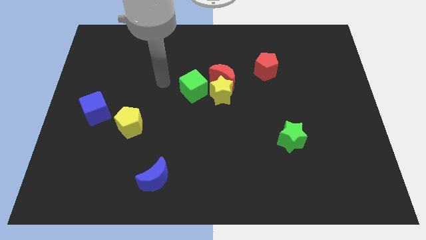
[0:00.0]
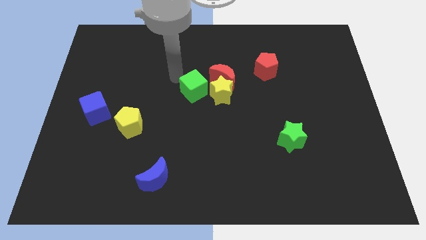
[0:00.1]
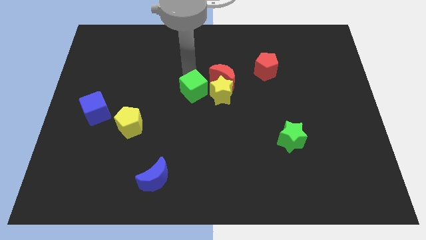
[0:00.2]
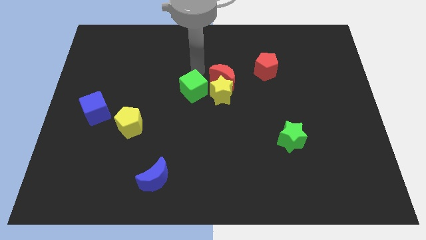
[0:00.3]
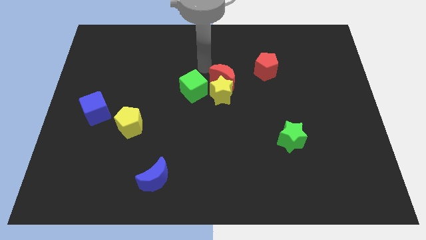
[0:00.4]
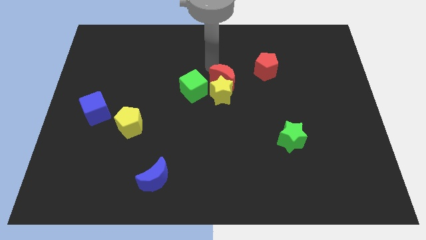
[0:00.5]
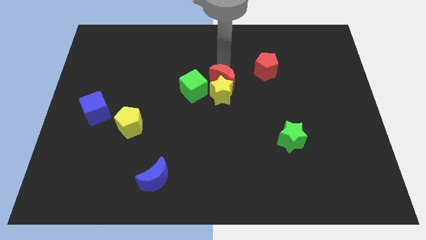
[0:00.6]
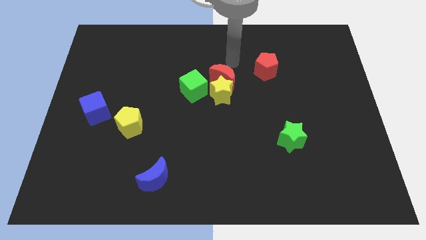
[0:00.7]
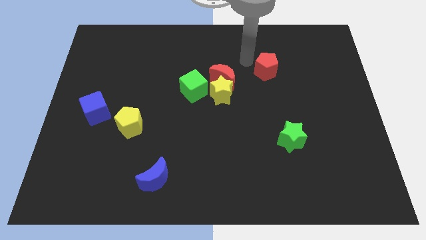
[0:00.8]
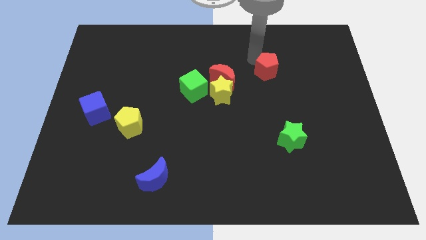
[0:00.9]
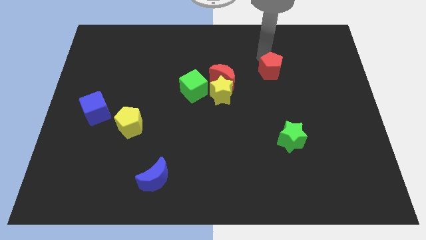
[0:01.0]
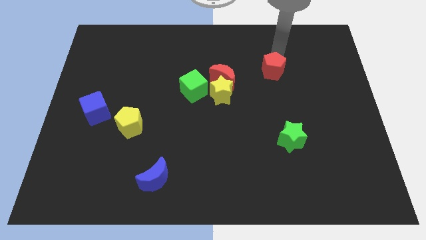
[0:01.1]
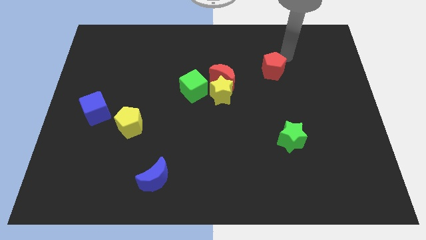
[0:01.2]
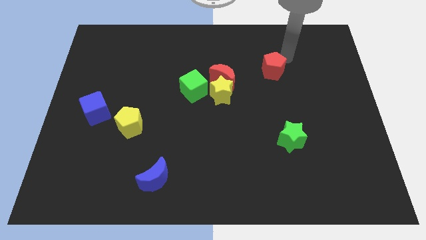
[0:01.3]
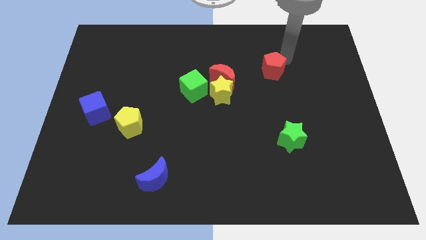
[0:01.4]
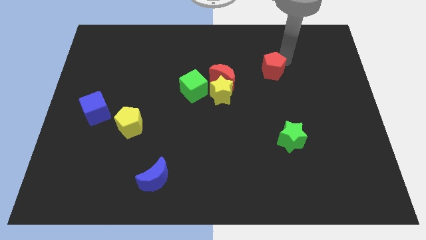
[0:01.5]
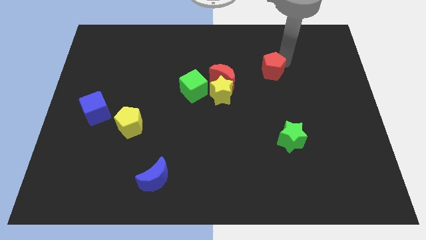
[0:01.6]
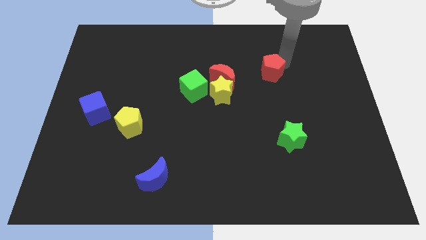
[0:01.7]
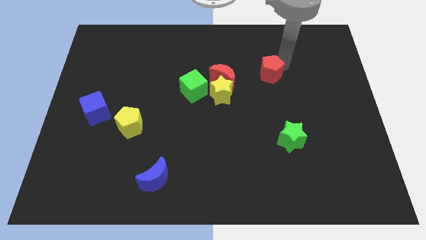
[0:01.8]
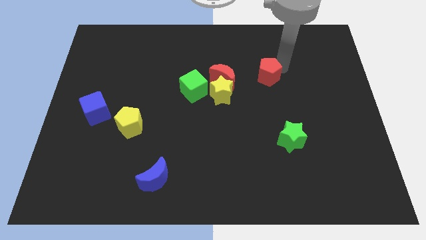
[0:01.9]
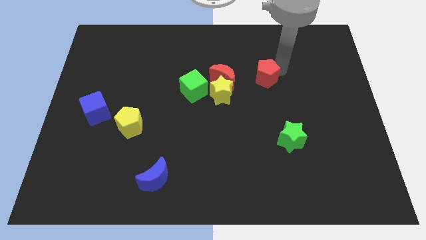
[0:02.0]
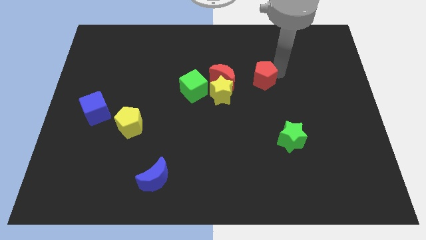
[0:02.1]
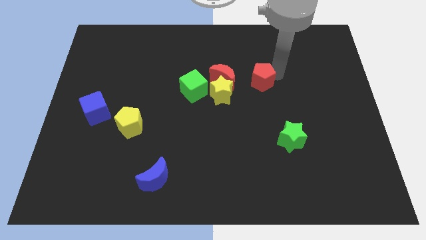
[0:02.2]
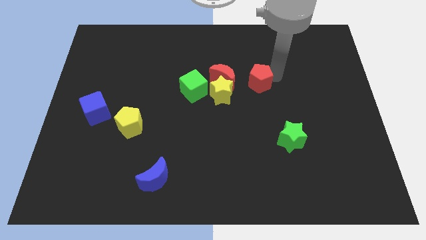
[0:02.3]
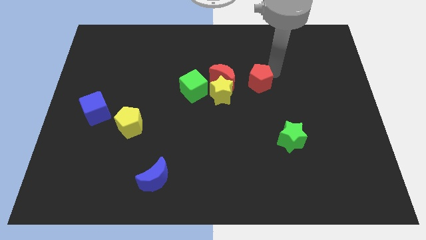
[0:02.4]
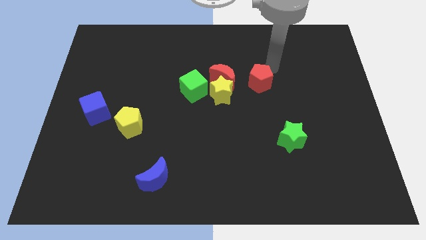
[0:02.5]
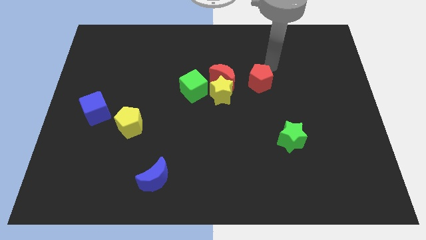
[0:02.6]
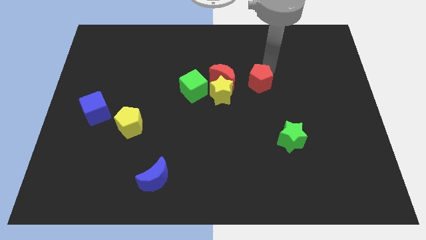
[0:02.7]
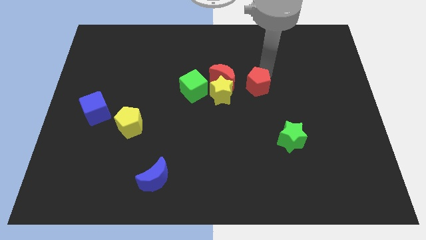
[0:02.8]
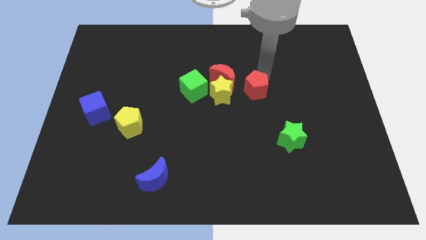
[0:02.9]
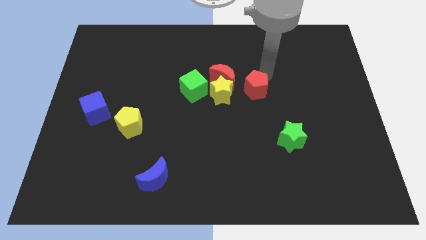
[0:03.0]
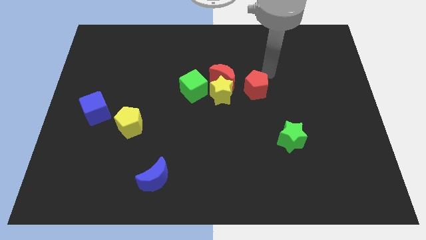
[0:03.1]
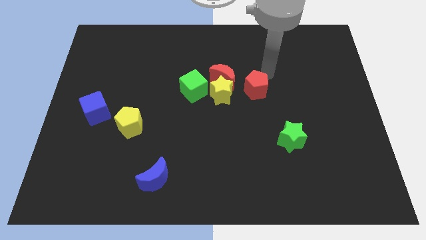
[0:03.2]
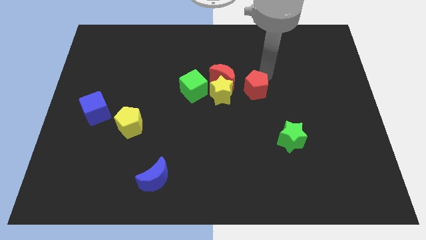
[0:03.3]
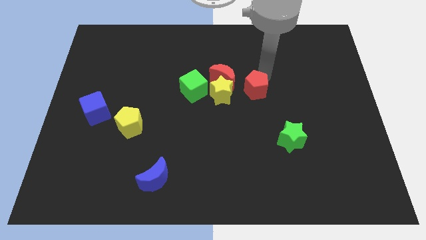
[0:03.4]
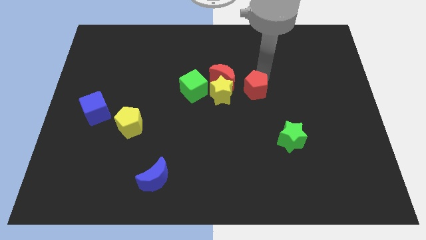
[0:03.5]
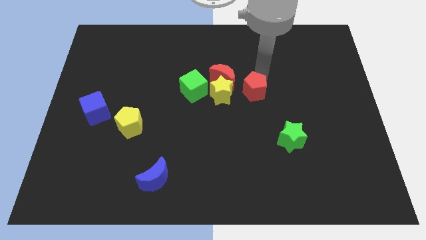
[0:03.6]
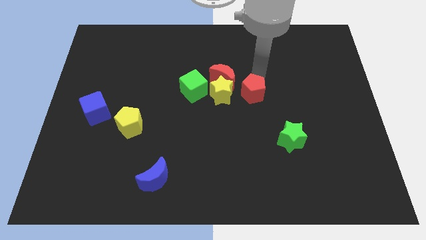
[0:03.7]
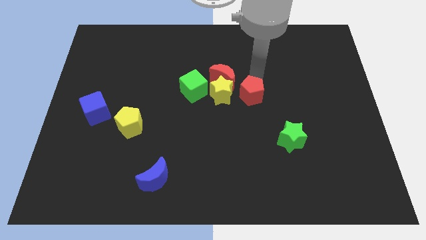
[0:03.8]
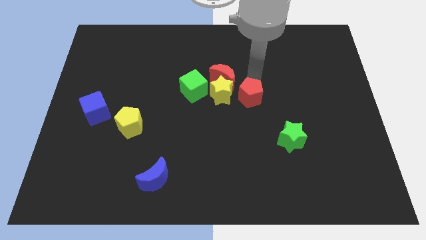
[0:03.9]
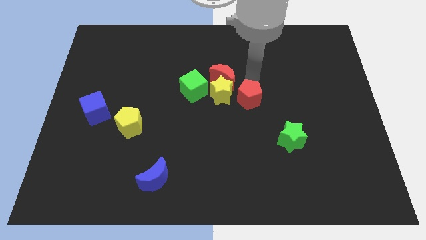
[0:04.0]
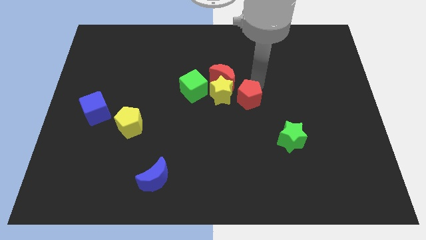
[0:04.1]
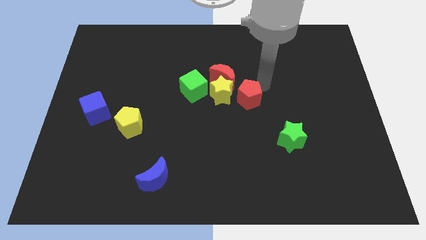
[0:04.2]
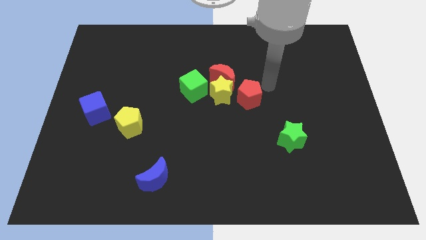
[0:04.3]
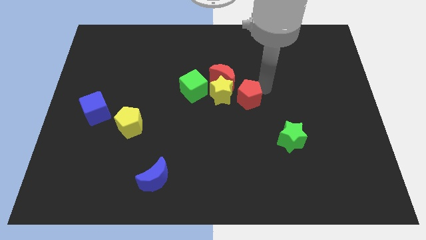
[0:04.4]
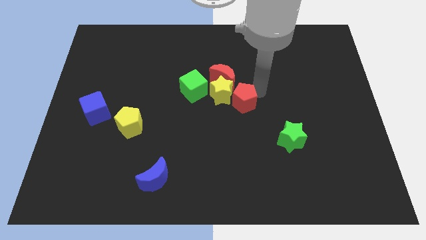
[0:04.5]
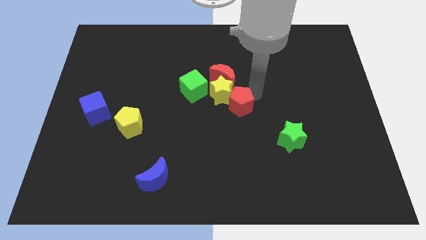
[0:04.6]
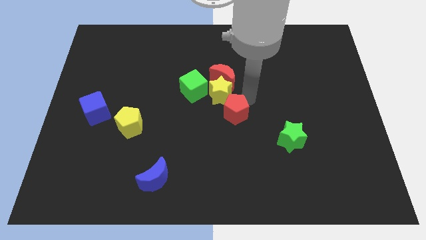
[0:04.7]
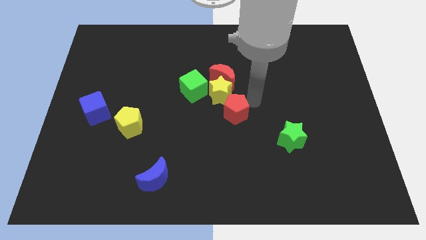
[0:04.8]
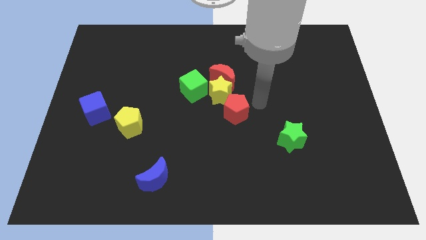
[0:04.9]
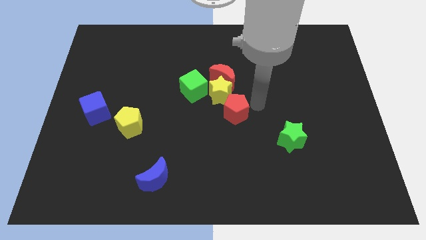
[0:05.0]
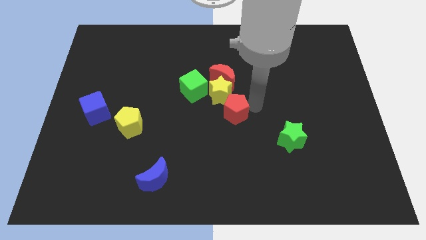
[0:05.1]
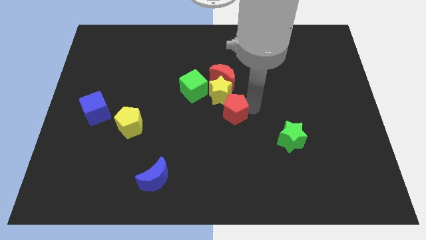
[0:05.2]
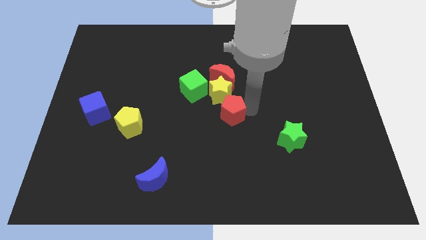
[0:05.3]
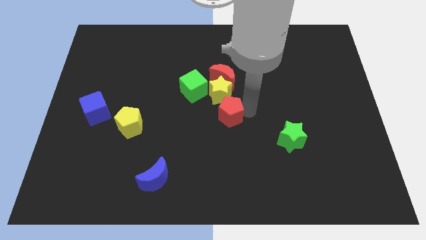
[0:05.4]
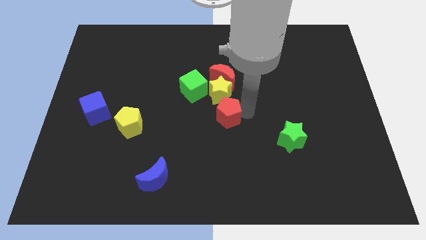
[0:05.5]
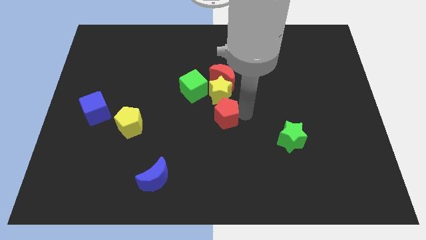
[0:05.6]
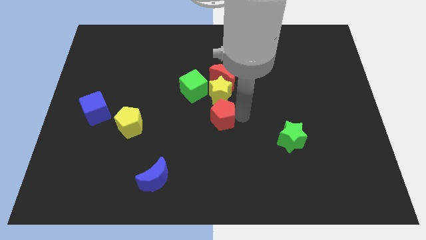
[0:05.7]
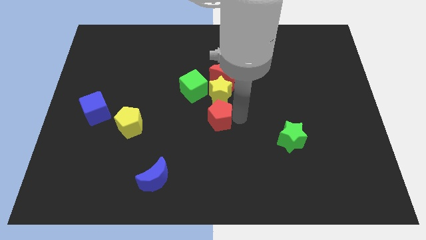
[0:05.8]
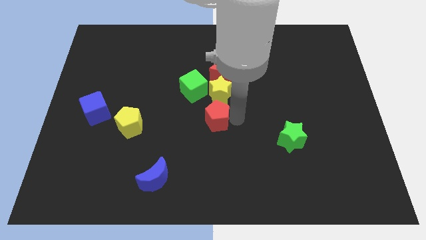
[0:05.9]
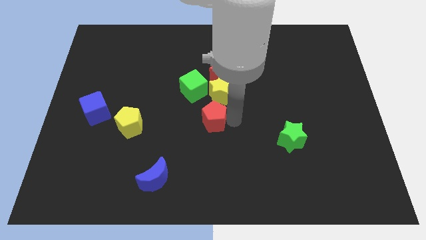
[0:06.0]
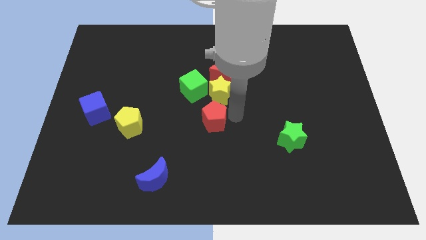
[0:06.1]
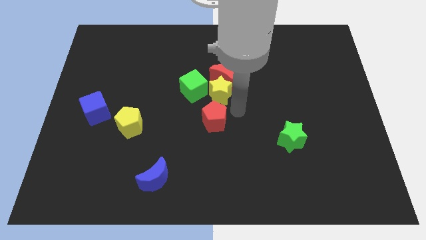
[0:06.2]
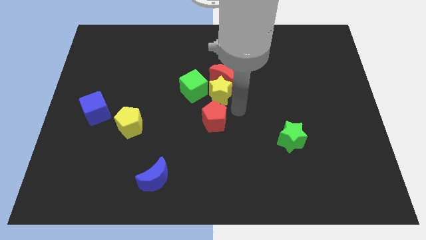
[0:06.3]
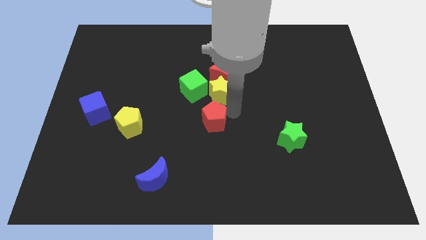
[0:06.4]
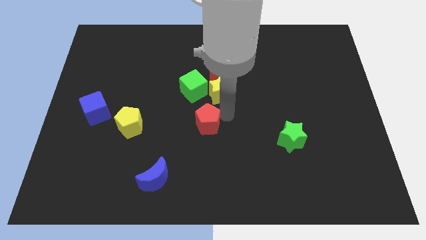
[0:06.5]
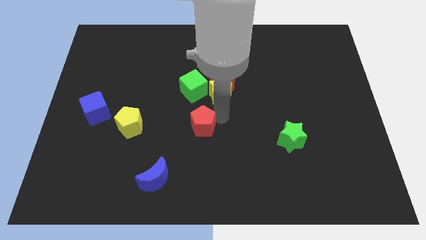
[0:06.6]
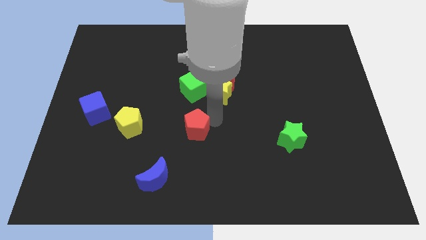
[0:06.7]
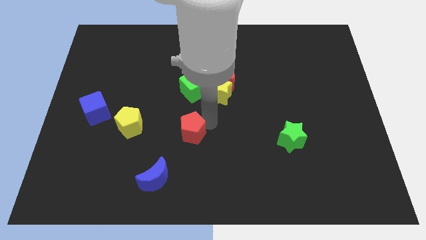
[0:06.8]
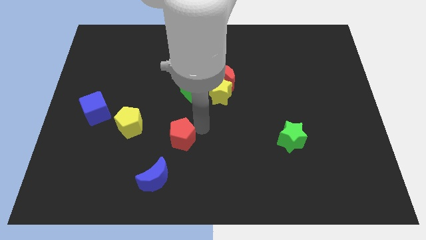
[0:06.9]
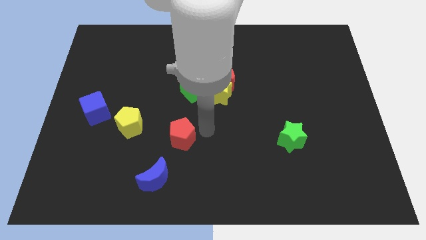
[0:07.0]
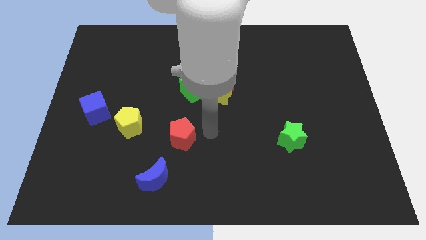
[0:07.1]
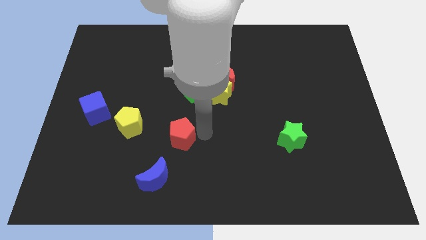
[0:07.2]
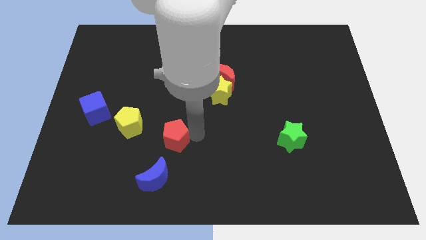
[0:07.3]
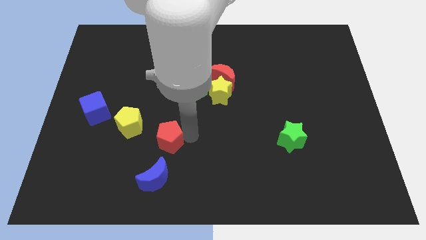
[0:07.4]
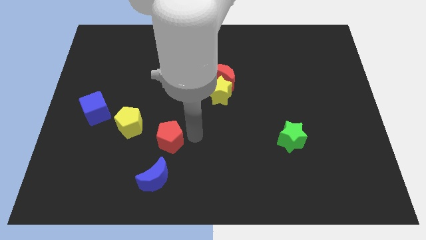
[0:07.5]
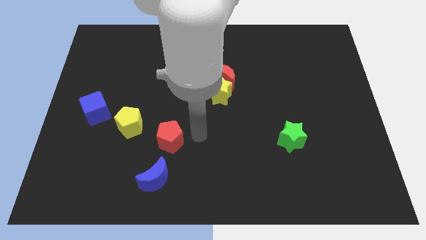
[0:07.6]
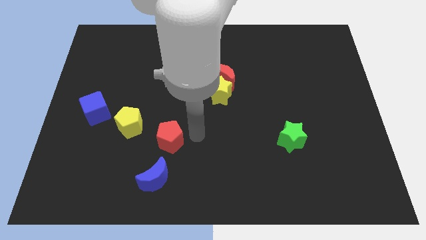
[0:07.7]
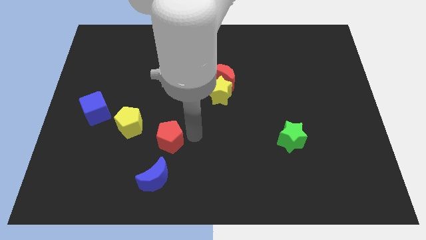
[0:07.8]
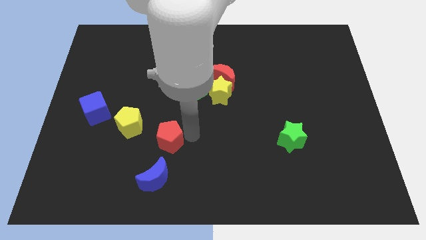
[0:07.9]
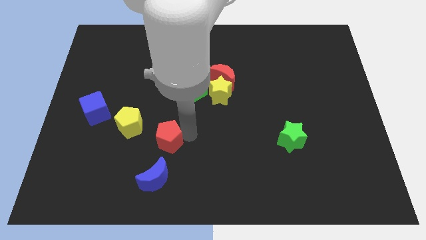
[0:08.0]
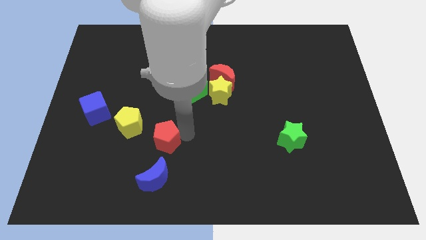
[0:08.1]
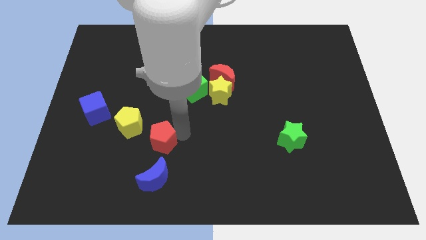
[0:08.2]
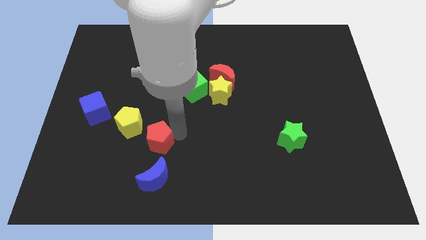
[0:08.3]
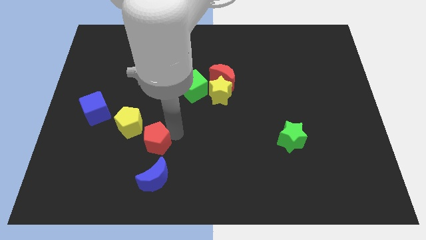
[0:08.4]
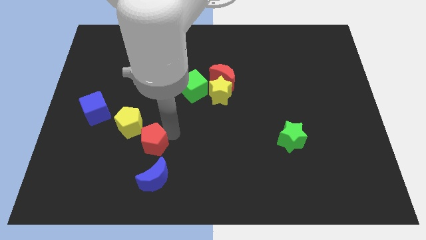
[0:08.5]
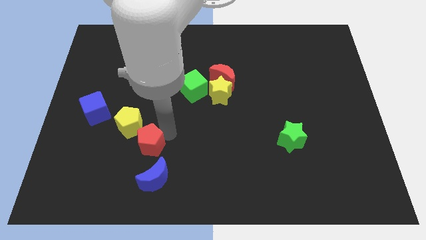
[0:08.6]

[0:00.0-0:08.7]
put the red pentagon to the top left side of the blue moon
